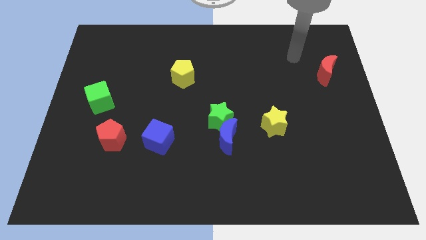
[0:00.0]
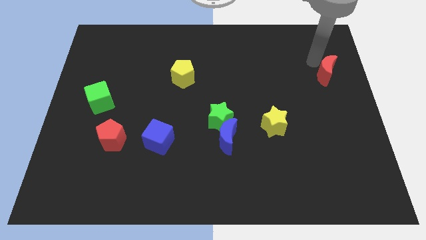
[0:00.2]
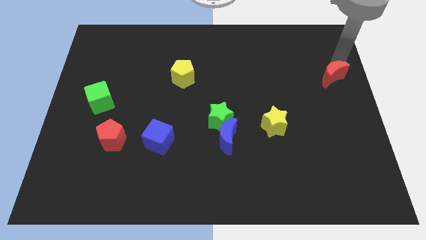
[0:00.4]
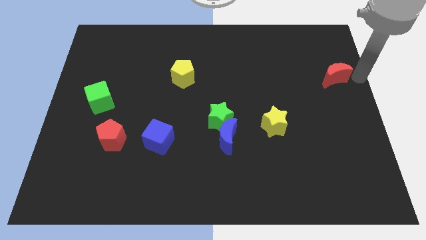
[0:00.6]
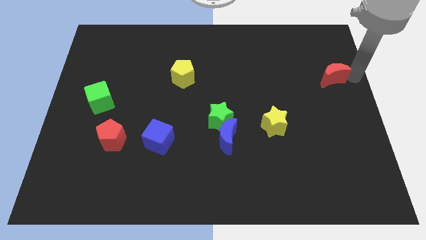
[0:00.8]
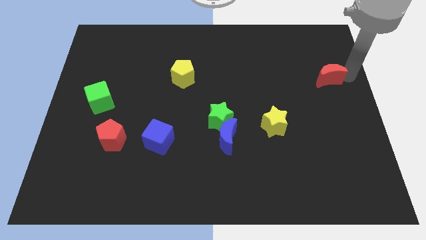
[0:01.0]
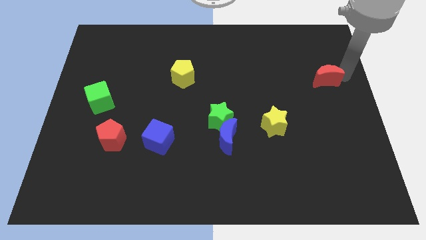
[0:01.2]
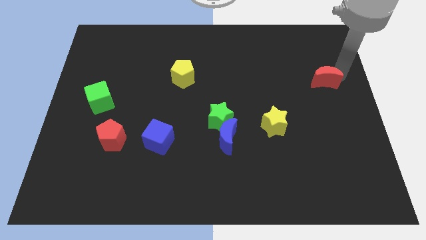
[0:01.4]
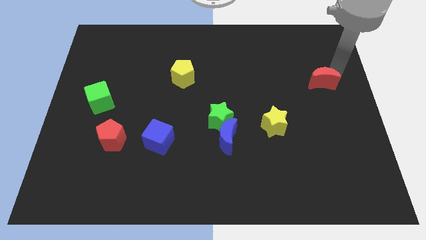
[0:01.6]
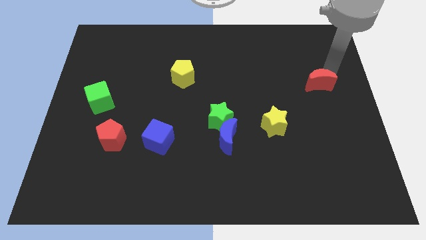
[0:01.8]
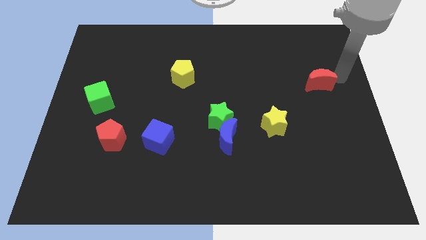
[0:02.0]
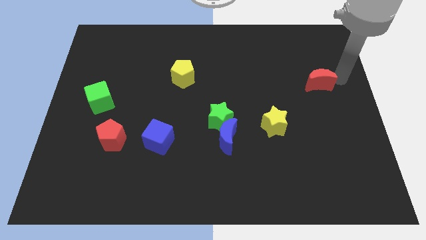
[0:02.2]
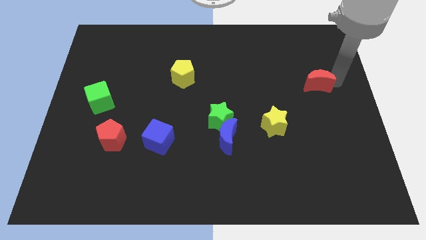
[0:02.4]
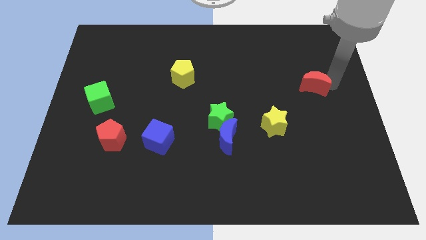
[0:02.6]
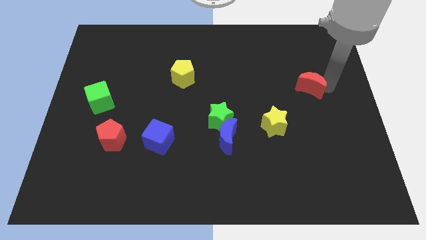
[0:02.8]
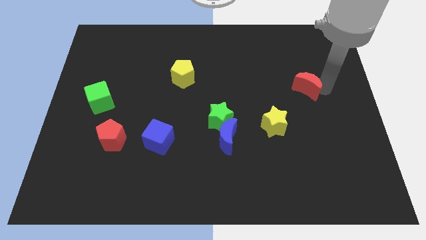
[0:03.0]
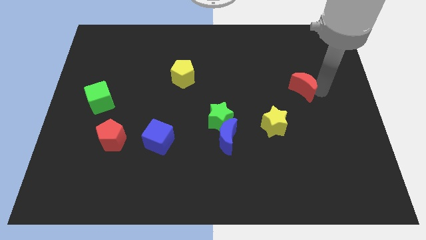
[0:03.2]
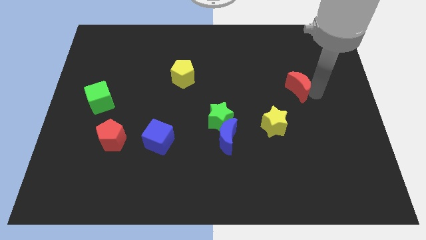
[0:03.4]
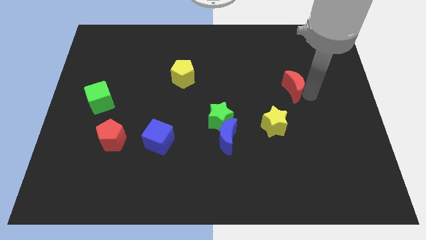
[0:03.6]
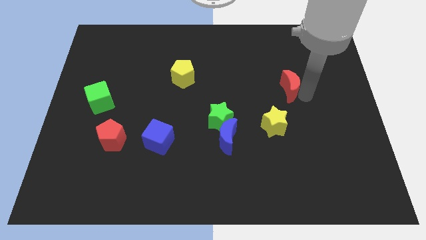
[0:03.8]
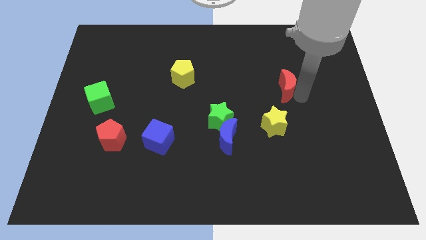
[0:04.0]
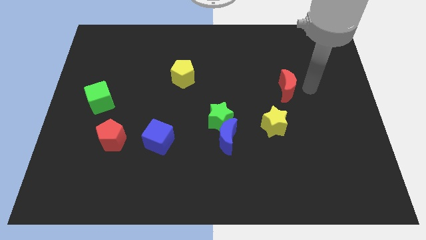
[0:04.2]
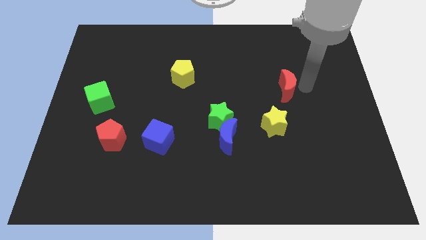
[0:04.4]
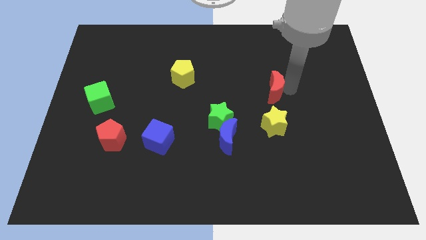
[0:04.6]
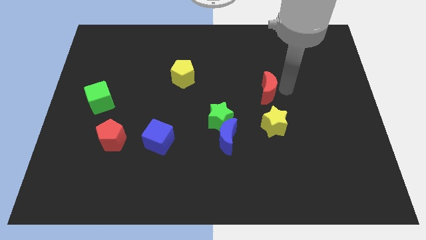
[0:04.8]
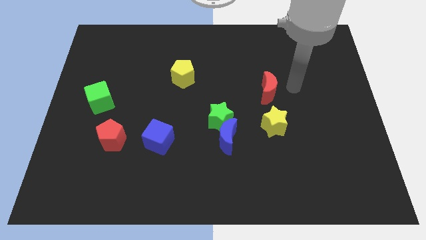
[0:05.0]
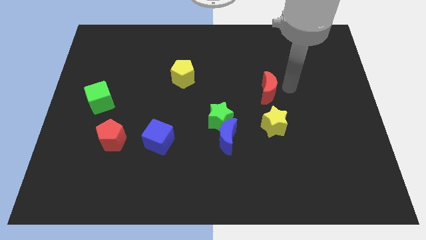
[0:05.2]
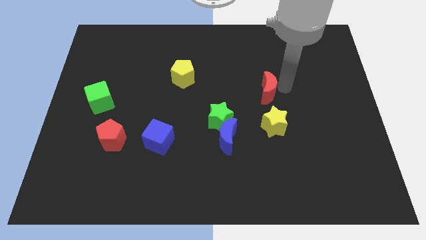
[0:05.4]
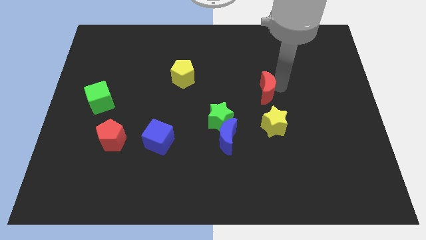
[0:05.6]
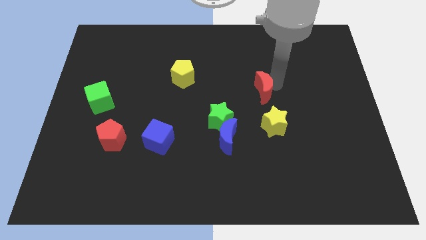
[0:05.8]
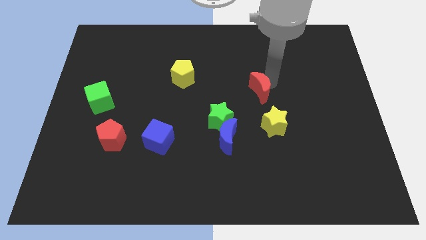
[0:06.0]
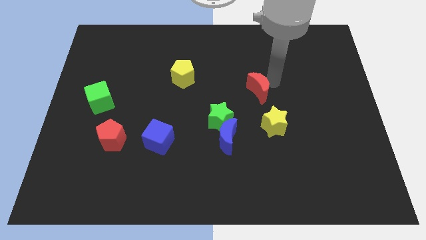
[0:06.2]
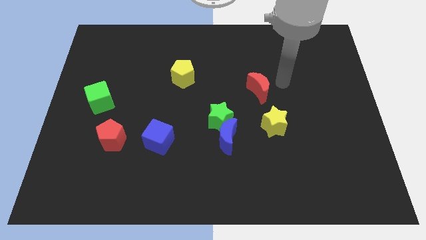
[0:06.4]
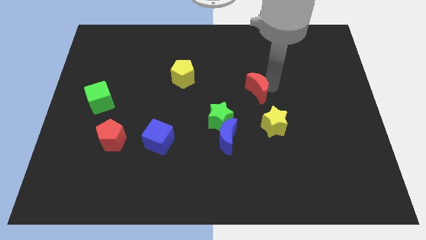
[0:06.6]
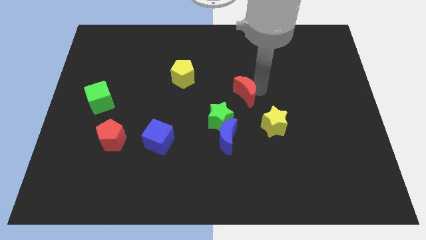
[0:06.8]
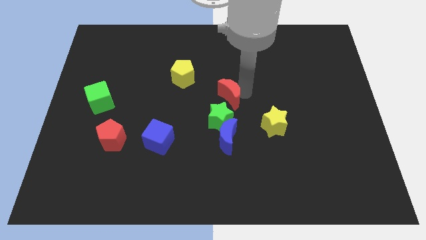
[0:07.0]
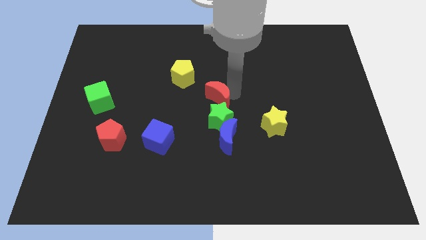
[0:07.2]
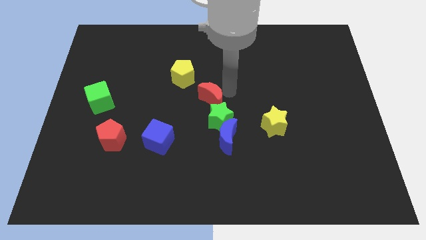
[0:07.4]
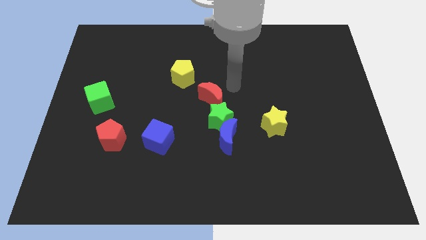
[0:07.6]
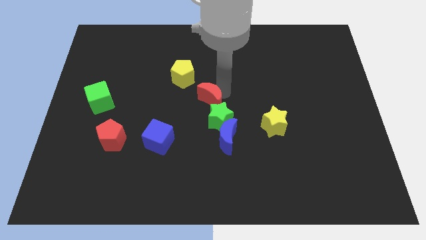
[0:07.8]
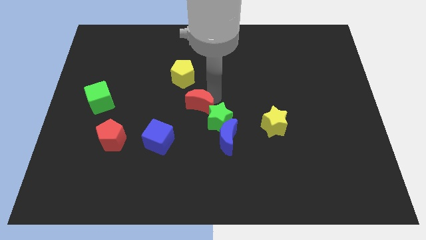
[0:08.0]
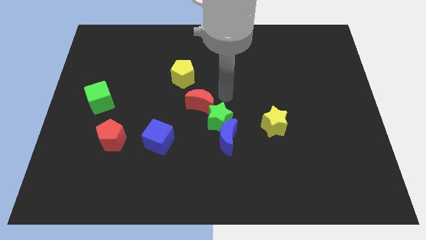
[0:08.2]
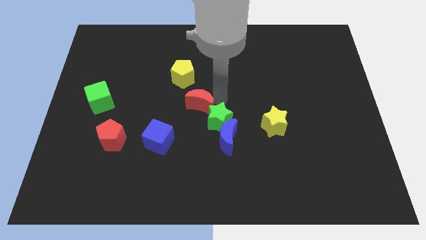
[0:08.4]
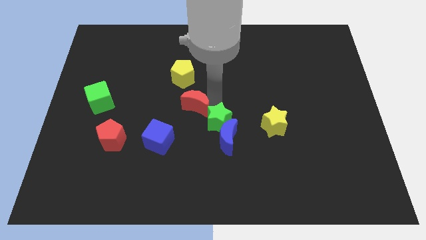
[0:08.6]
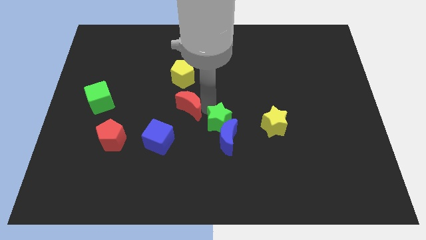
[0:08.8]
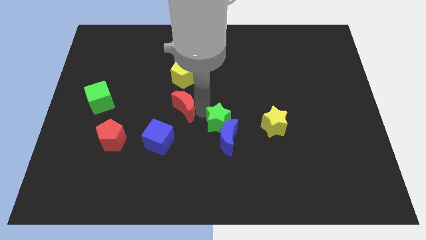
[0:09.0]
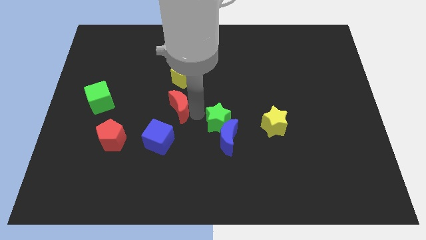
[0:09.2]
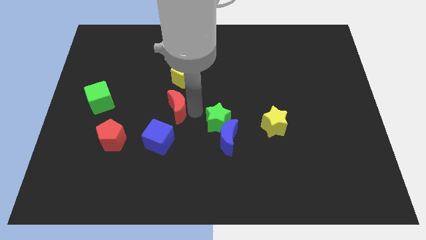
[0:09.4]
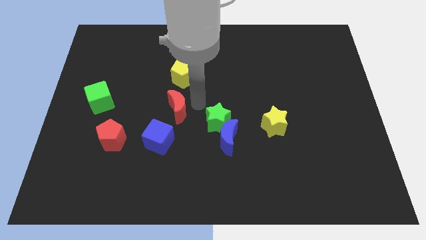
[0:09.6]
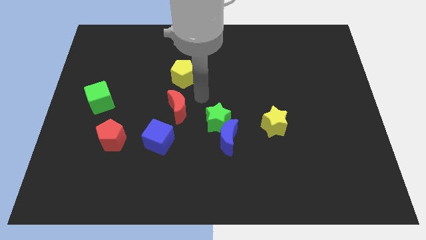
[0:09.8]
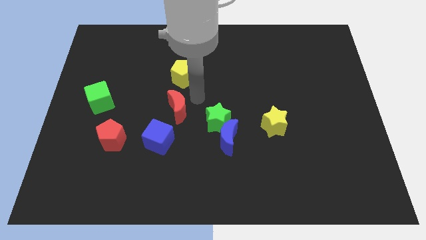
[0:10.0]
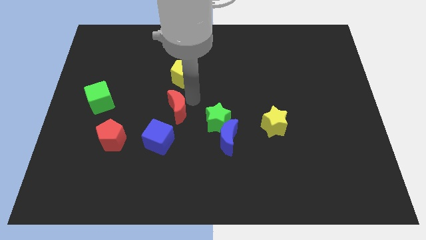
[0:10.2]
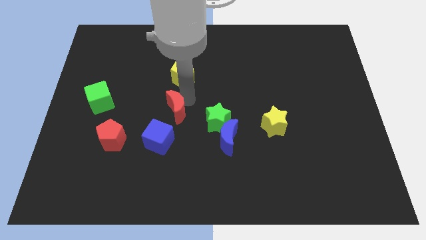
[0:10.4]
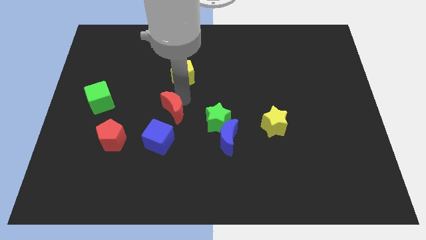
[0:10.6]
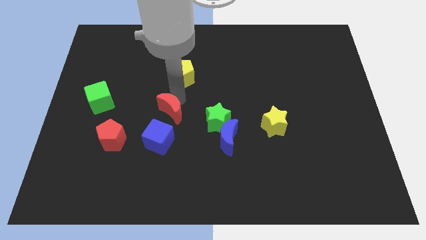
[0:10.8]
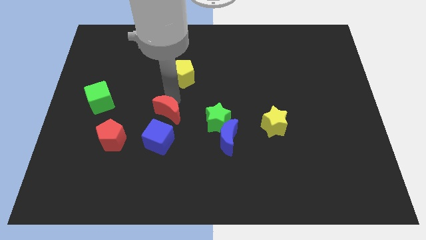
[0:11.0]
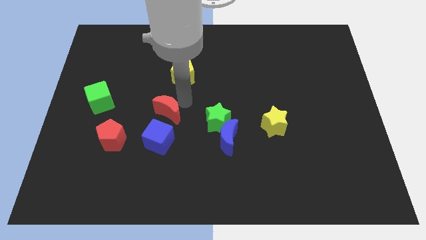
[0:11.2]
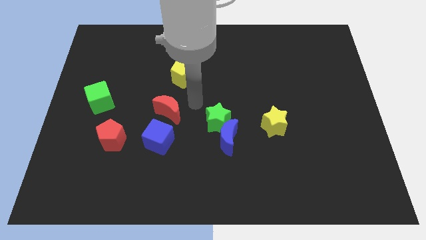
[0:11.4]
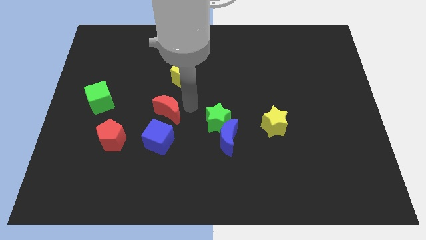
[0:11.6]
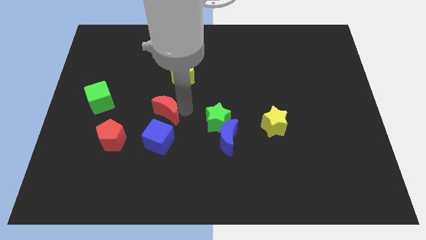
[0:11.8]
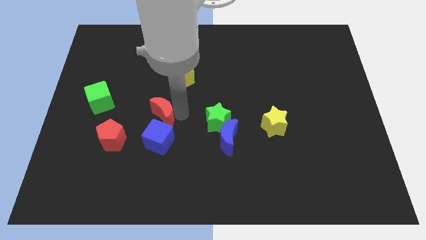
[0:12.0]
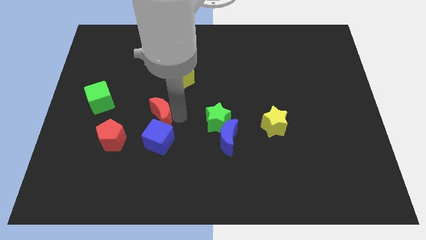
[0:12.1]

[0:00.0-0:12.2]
slide the red moon diagonally up and to the left of the blue cube

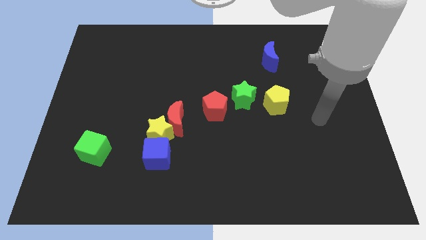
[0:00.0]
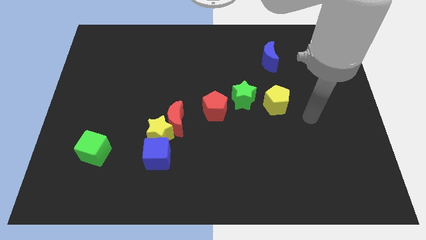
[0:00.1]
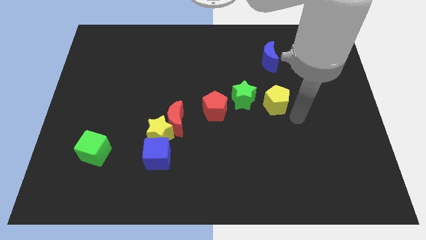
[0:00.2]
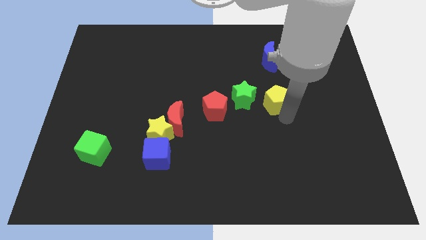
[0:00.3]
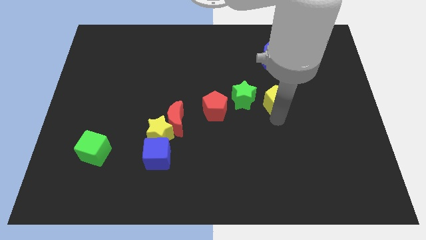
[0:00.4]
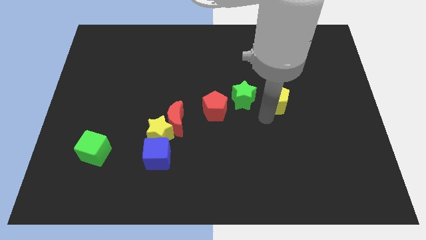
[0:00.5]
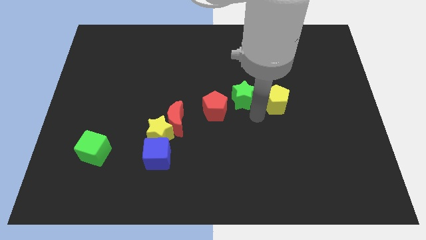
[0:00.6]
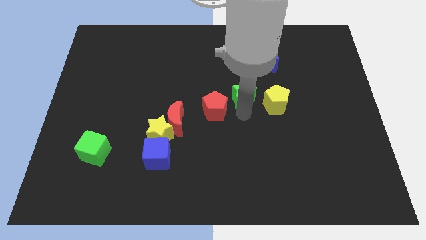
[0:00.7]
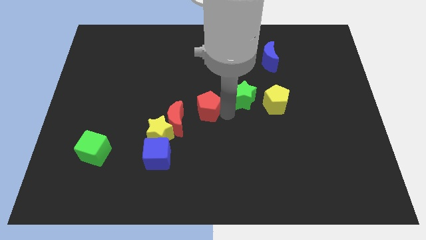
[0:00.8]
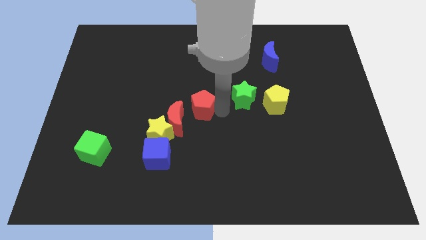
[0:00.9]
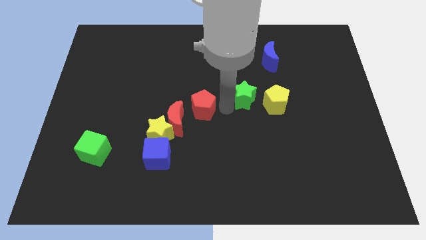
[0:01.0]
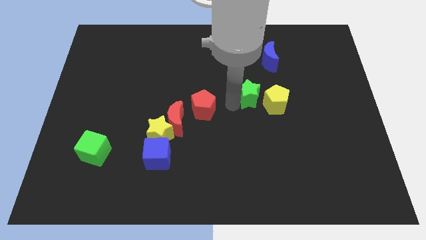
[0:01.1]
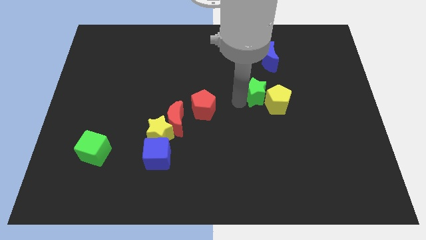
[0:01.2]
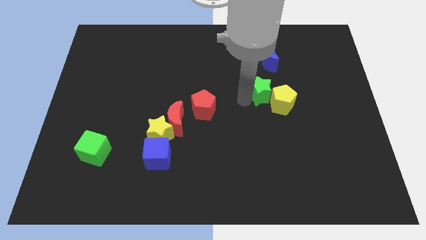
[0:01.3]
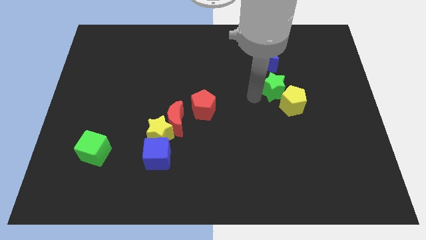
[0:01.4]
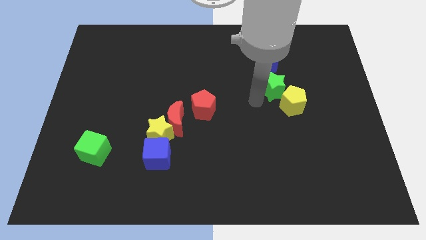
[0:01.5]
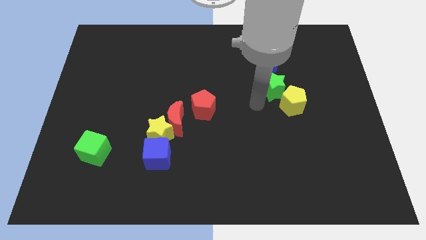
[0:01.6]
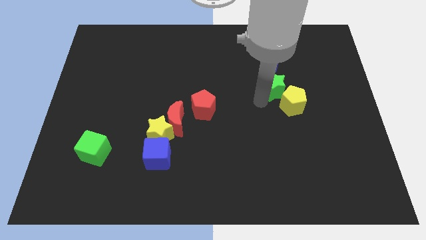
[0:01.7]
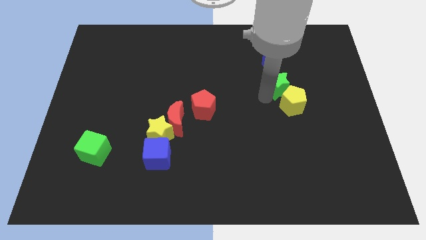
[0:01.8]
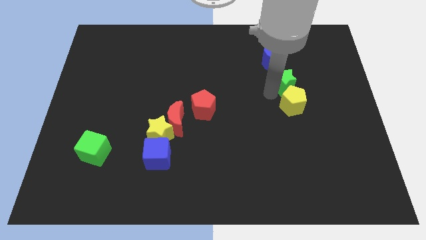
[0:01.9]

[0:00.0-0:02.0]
slide the green star to the bottom right of the blue moon
